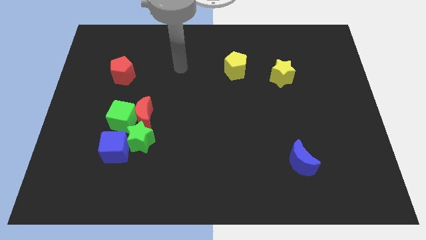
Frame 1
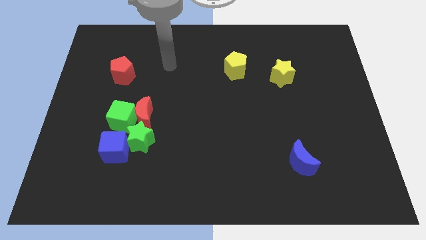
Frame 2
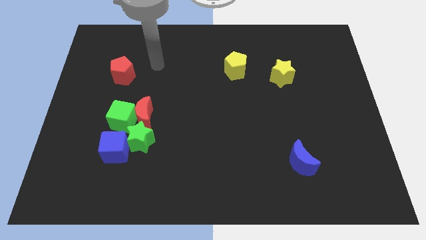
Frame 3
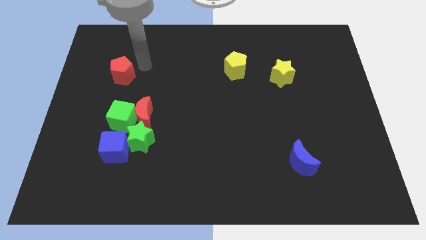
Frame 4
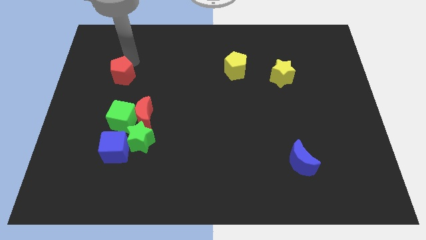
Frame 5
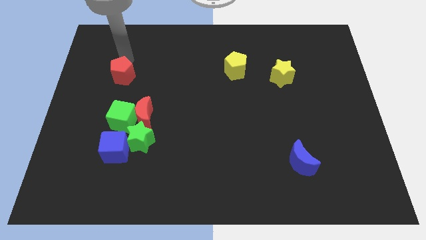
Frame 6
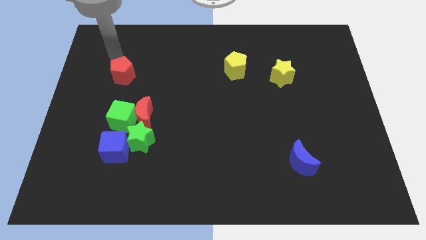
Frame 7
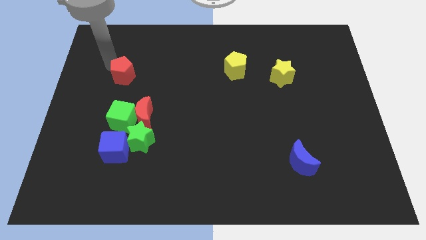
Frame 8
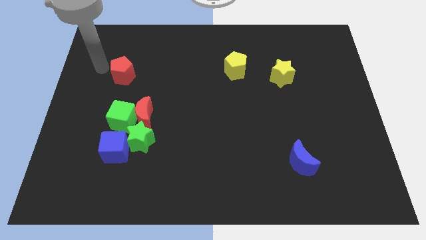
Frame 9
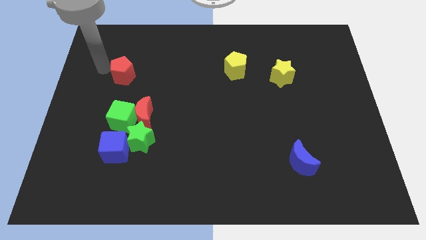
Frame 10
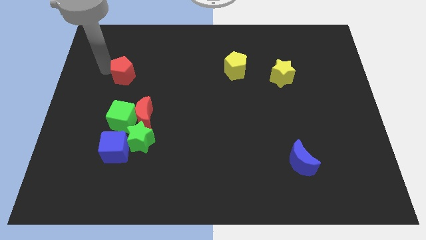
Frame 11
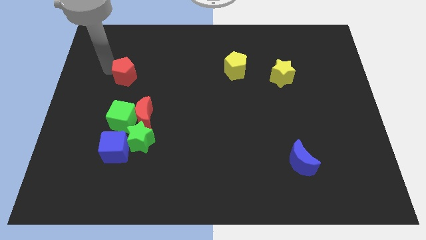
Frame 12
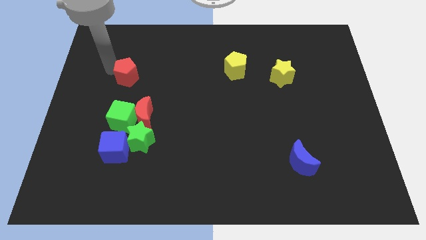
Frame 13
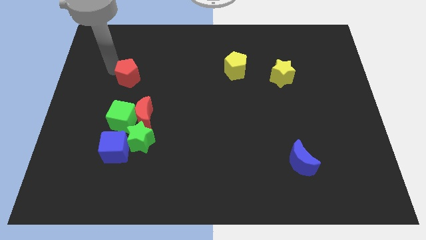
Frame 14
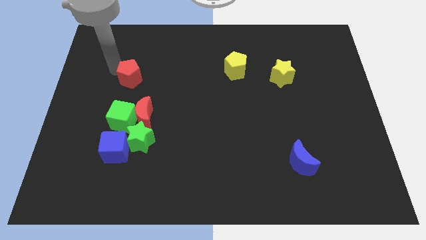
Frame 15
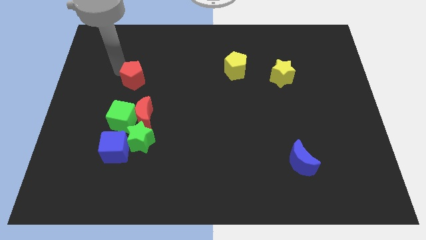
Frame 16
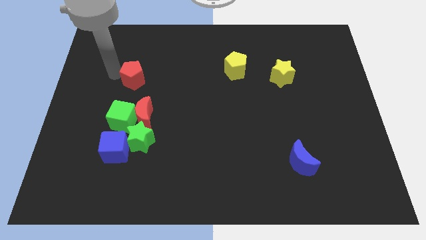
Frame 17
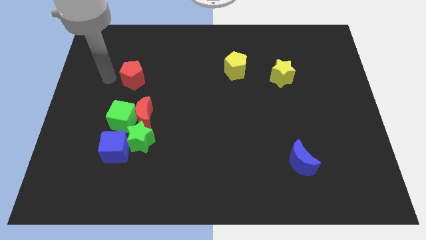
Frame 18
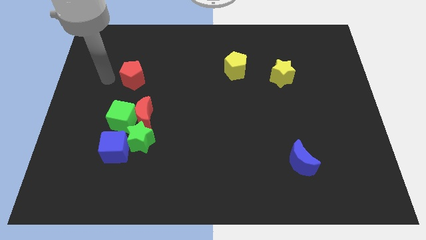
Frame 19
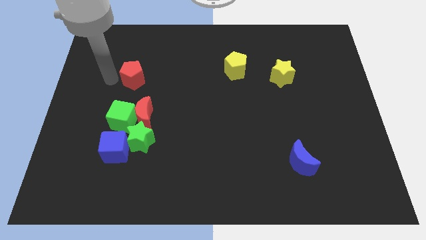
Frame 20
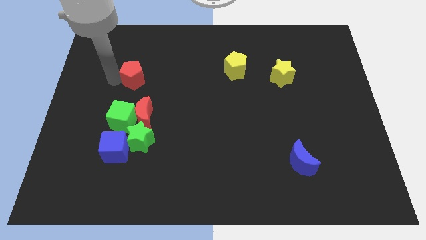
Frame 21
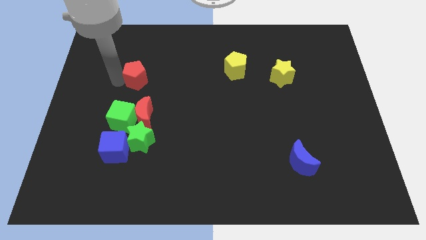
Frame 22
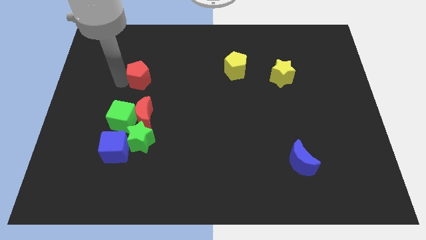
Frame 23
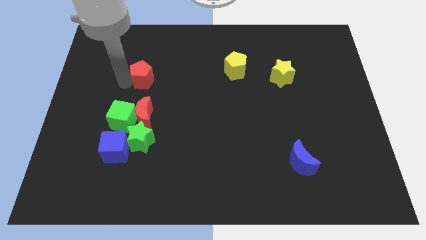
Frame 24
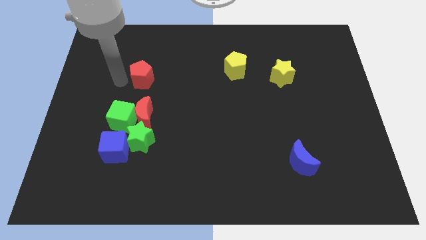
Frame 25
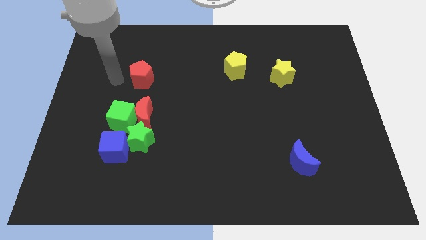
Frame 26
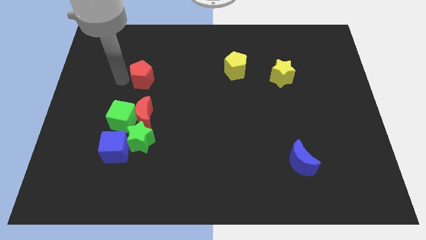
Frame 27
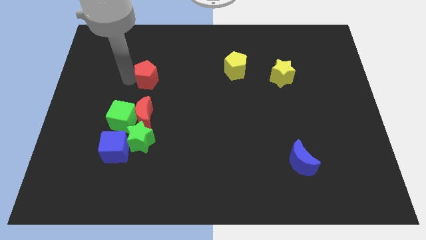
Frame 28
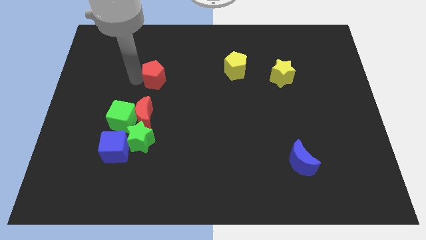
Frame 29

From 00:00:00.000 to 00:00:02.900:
push the red pentagon right slightly

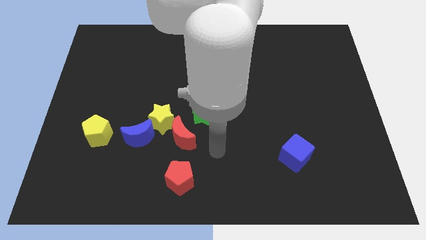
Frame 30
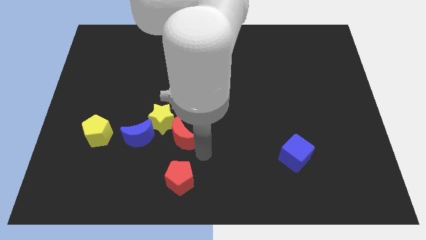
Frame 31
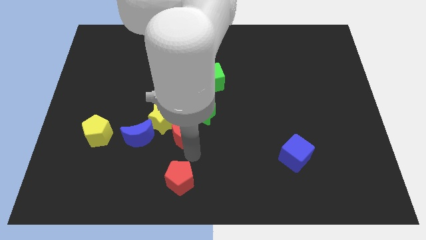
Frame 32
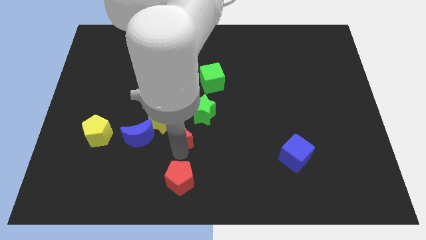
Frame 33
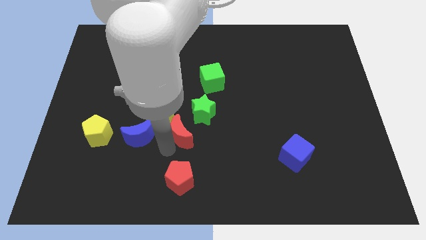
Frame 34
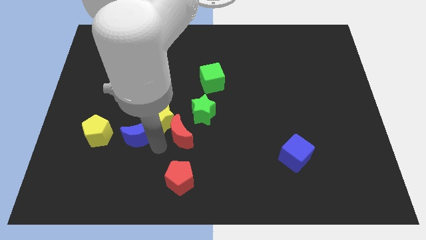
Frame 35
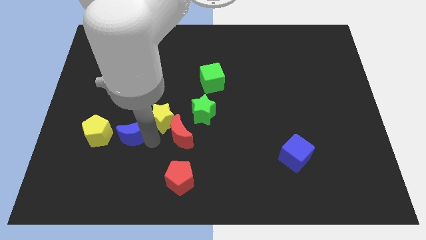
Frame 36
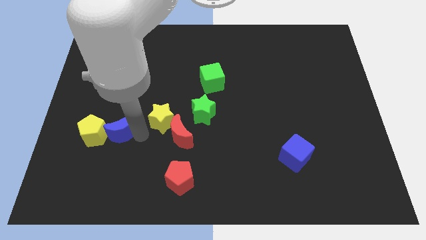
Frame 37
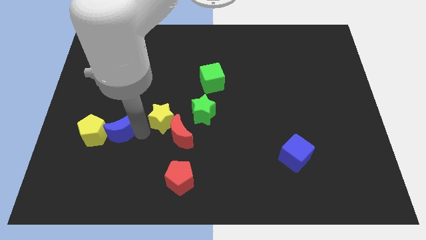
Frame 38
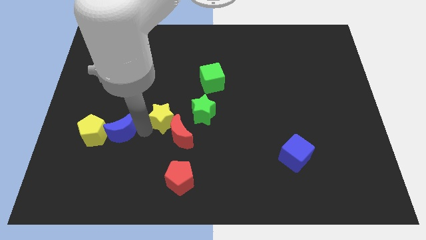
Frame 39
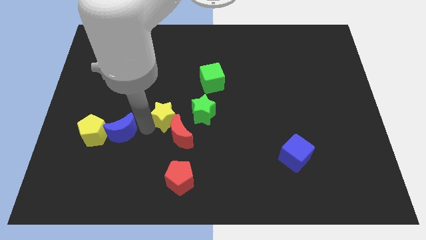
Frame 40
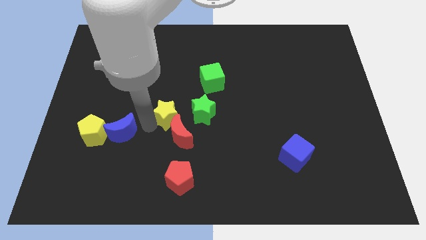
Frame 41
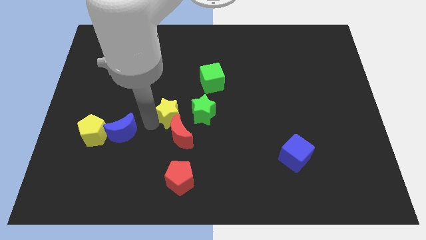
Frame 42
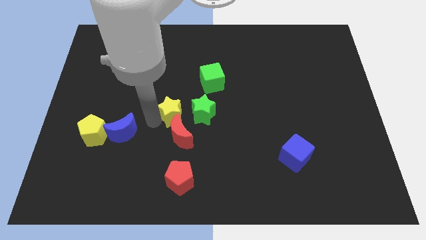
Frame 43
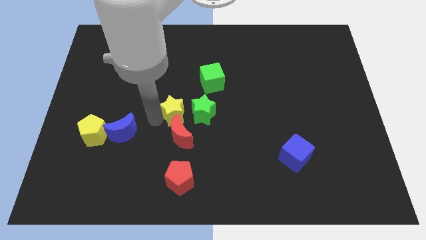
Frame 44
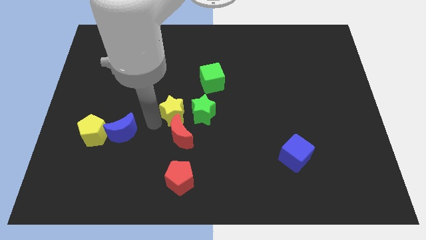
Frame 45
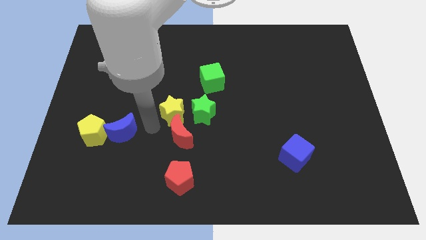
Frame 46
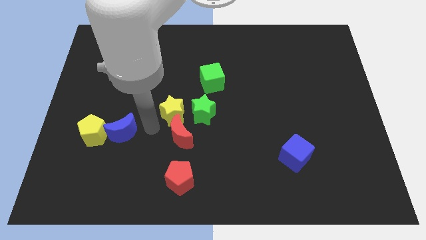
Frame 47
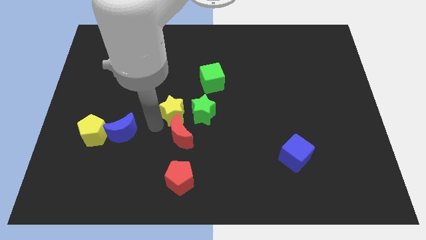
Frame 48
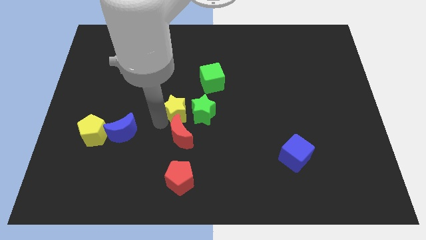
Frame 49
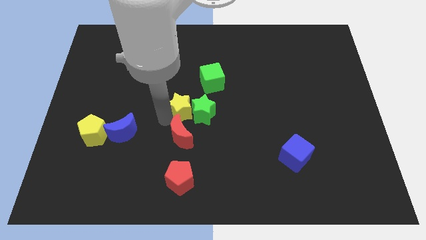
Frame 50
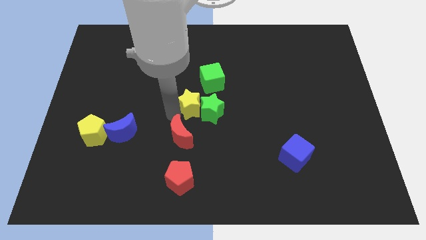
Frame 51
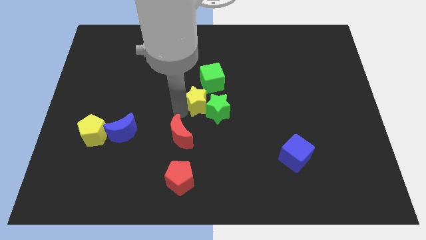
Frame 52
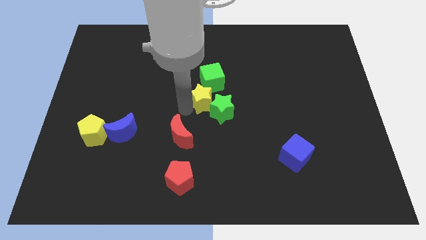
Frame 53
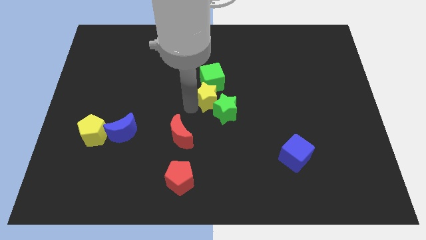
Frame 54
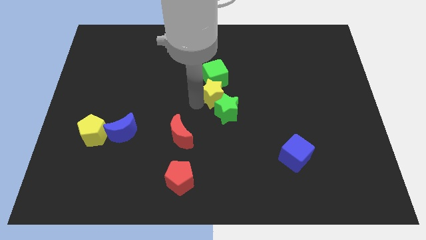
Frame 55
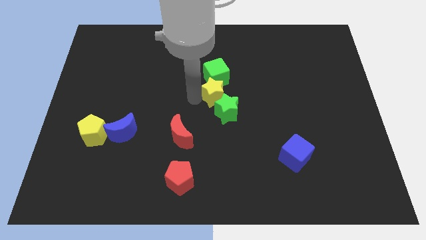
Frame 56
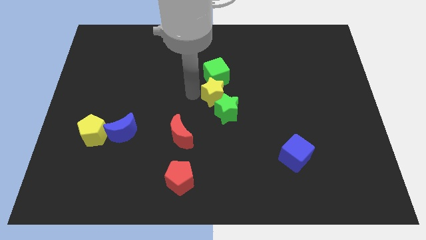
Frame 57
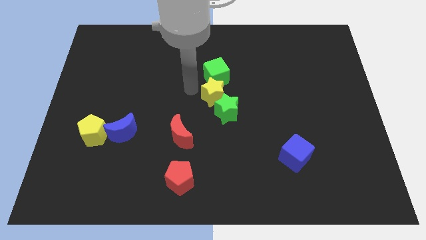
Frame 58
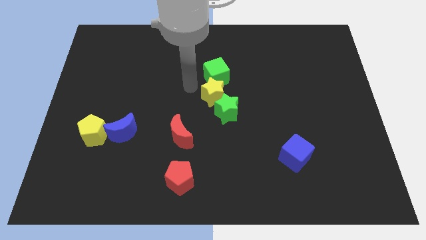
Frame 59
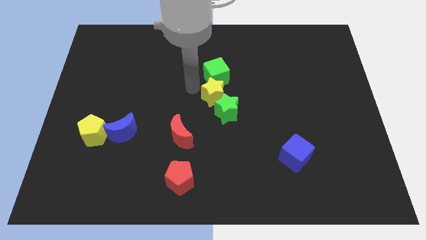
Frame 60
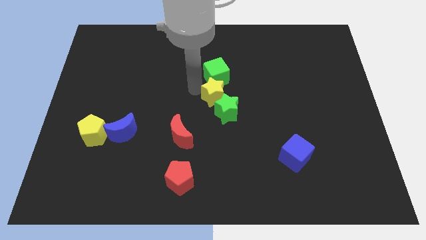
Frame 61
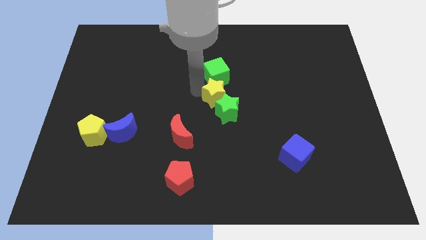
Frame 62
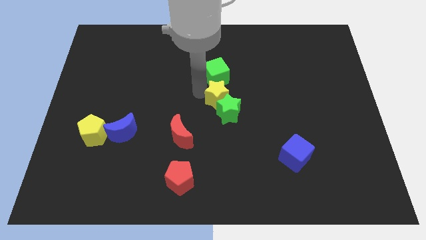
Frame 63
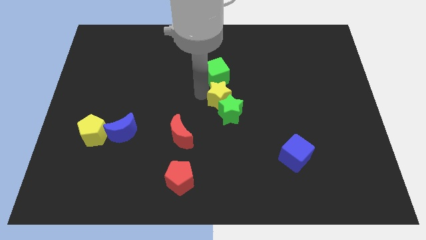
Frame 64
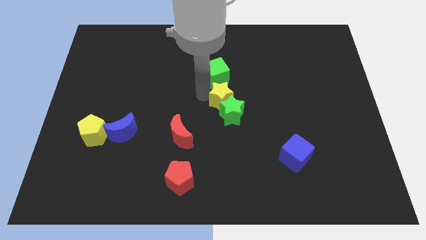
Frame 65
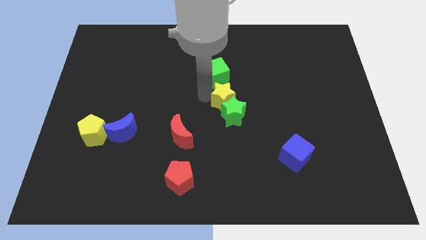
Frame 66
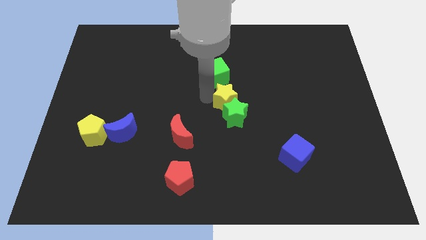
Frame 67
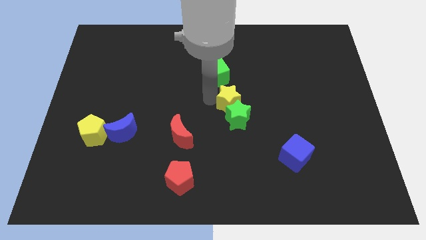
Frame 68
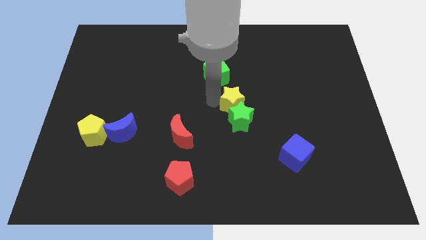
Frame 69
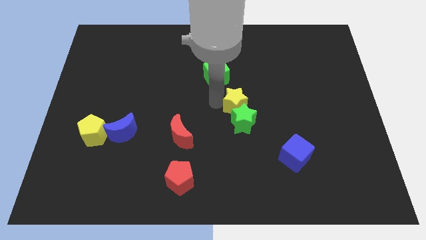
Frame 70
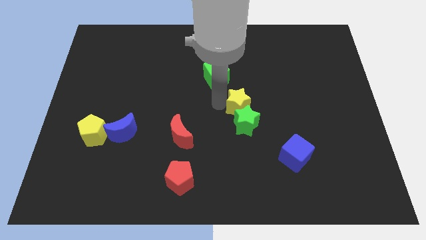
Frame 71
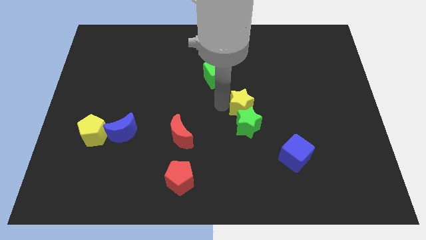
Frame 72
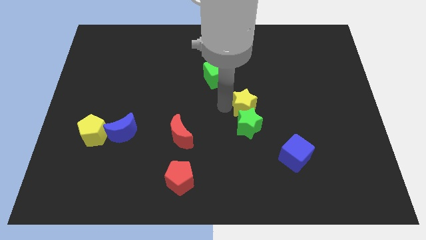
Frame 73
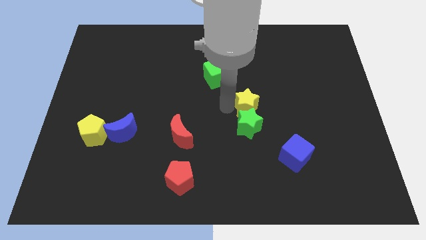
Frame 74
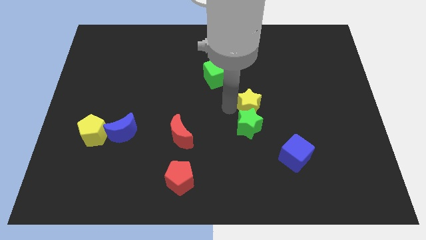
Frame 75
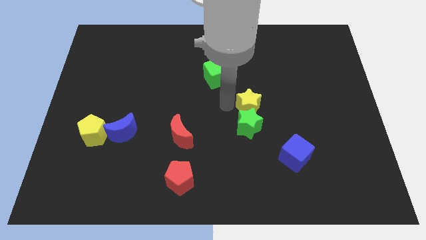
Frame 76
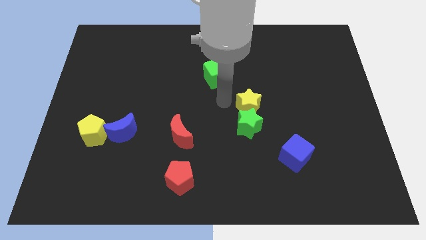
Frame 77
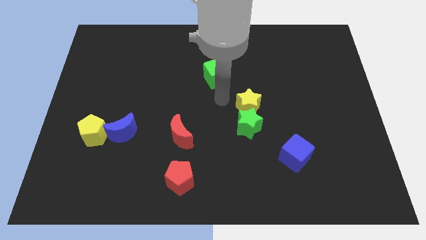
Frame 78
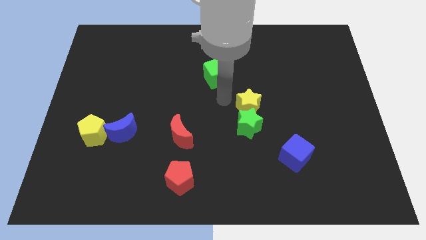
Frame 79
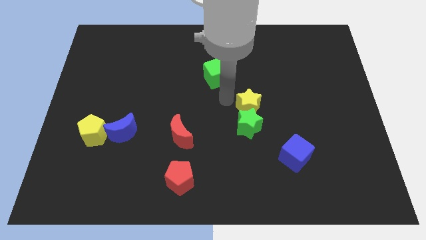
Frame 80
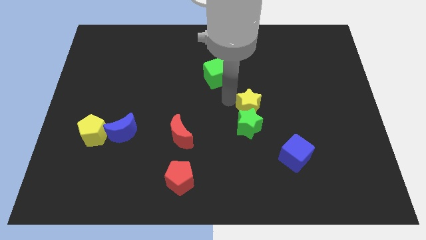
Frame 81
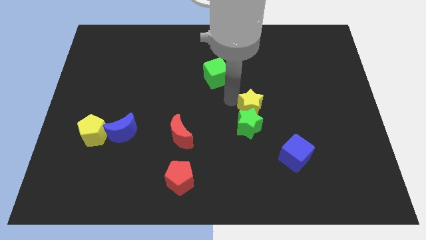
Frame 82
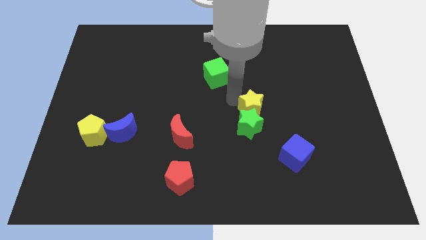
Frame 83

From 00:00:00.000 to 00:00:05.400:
slide the yellow star right
